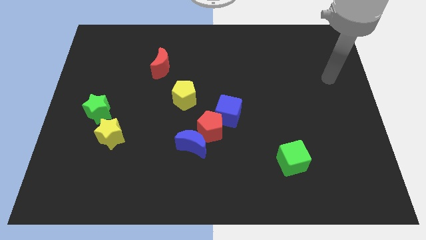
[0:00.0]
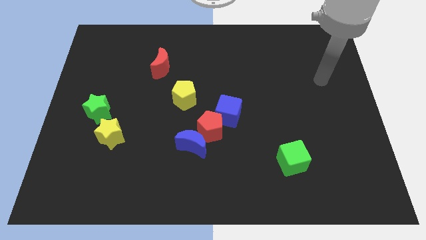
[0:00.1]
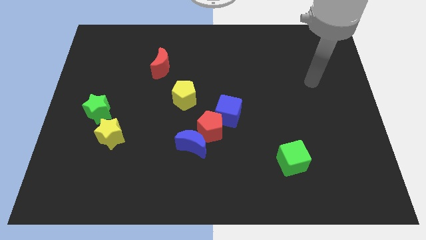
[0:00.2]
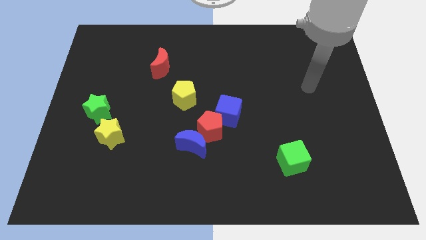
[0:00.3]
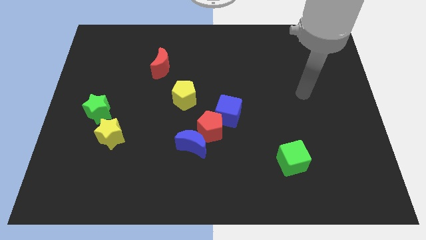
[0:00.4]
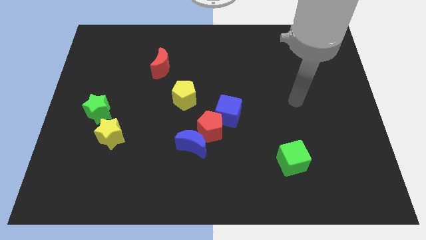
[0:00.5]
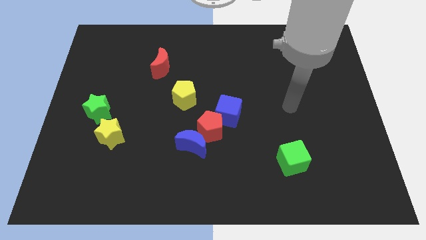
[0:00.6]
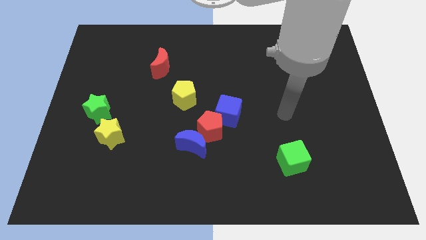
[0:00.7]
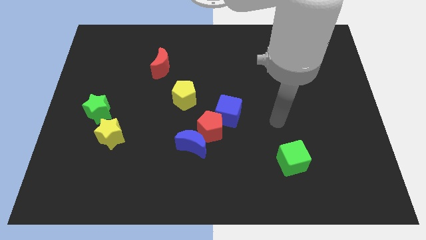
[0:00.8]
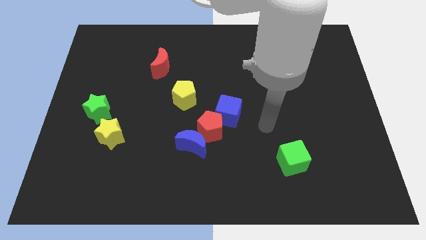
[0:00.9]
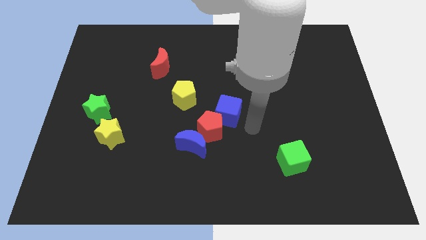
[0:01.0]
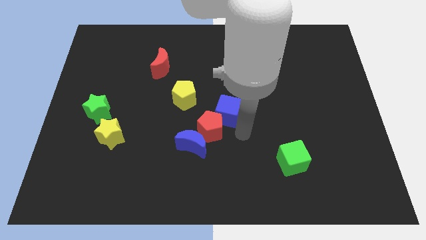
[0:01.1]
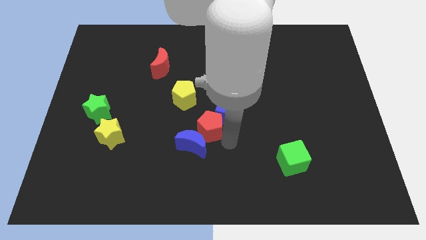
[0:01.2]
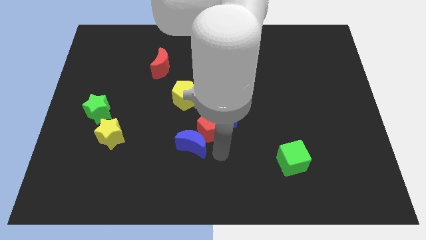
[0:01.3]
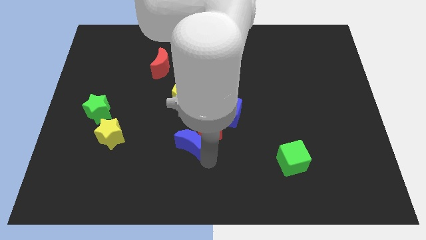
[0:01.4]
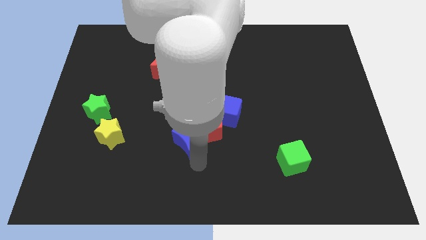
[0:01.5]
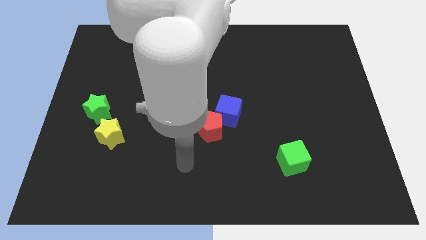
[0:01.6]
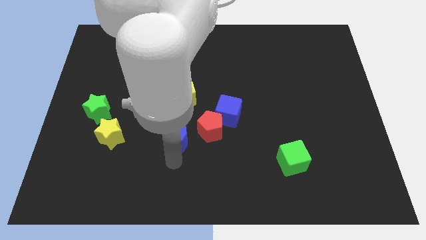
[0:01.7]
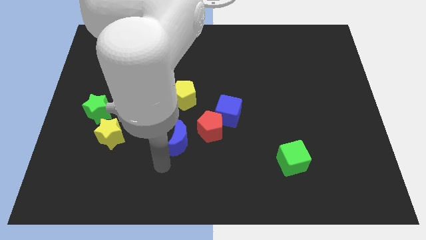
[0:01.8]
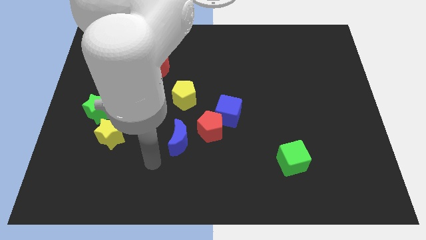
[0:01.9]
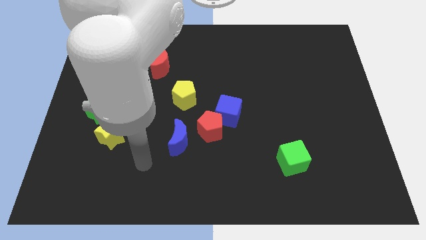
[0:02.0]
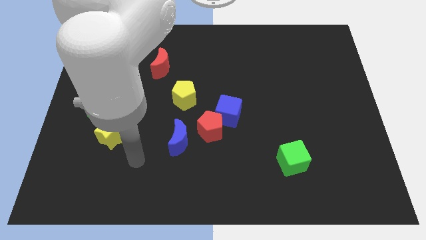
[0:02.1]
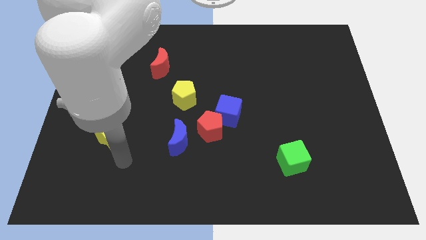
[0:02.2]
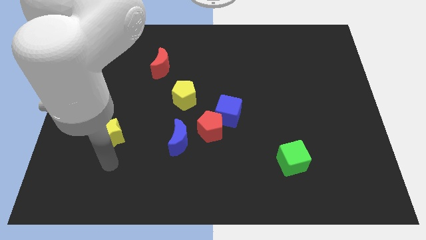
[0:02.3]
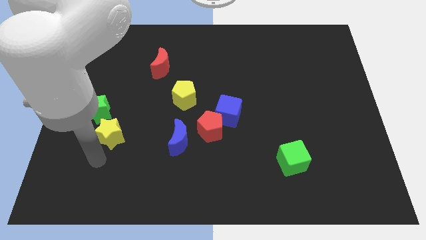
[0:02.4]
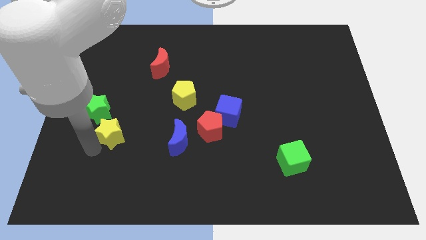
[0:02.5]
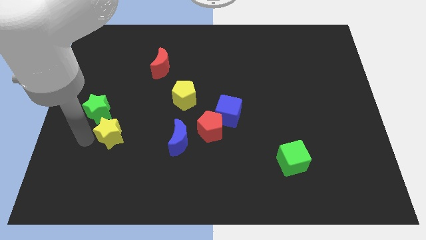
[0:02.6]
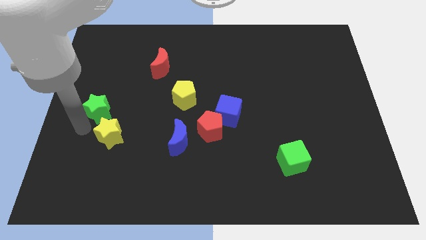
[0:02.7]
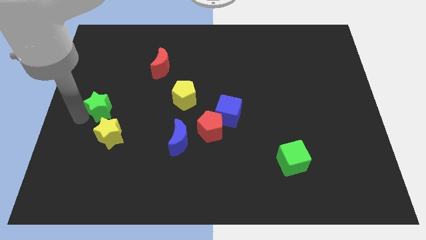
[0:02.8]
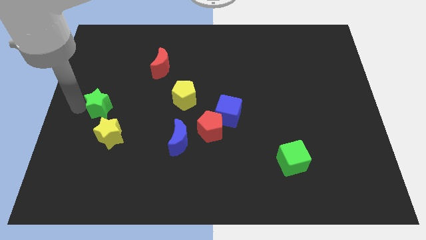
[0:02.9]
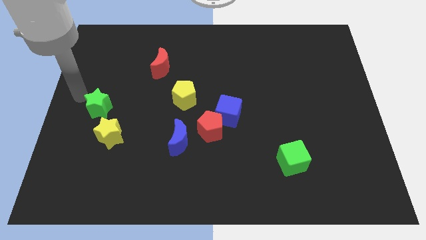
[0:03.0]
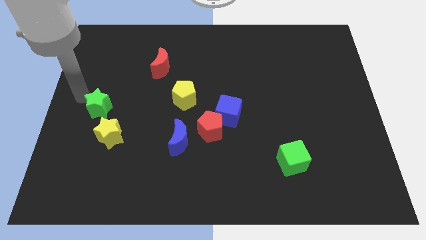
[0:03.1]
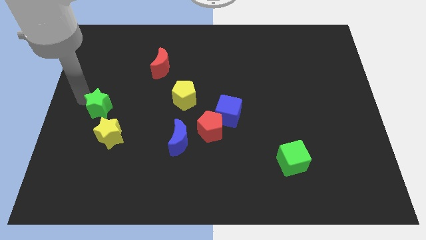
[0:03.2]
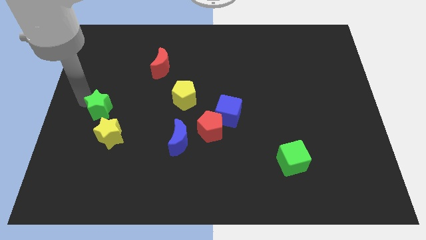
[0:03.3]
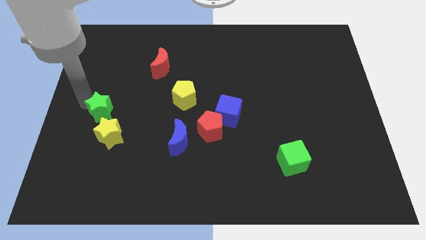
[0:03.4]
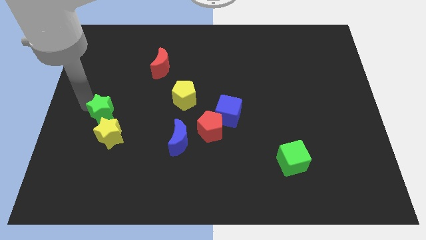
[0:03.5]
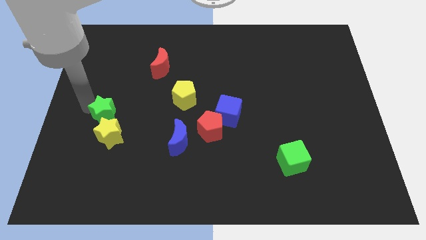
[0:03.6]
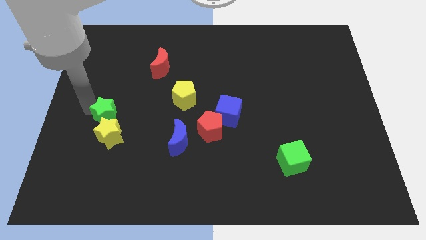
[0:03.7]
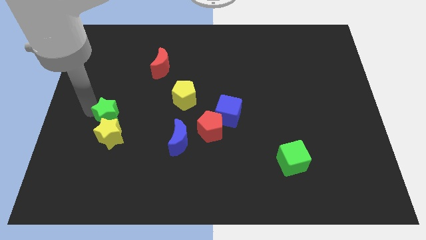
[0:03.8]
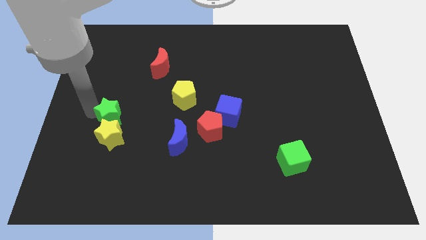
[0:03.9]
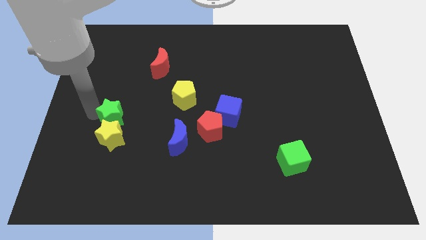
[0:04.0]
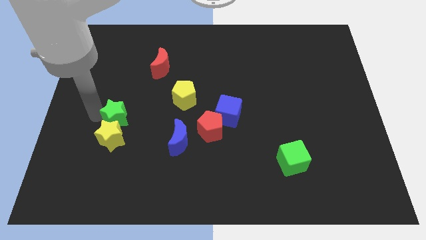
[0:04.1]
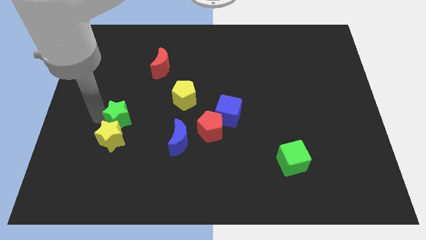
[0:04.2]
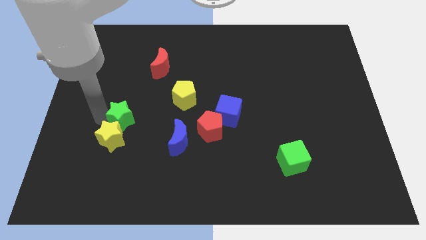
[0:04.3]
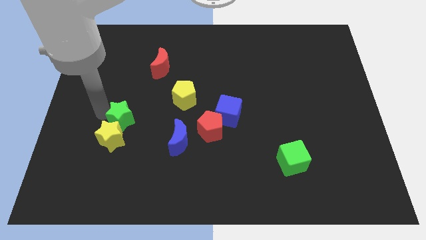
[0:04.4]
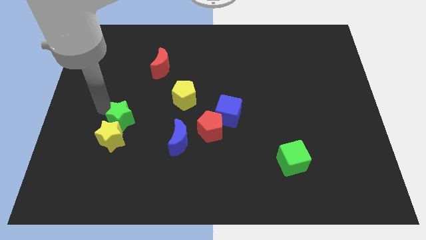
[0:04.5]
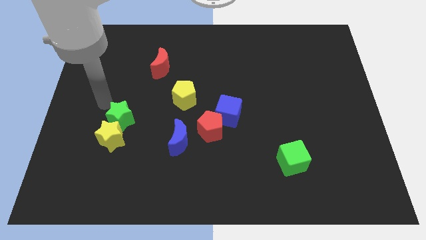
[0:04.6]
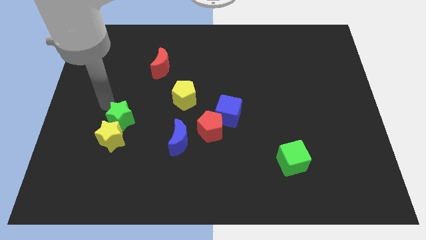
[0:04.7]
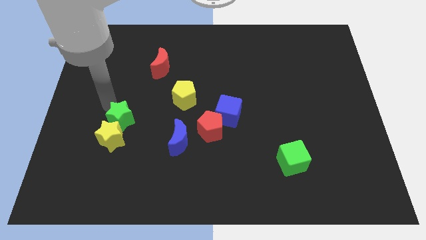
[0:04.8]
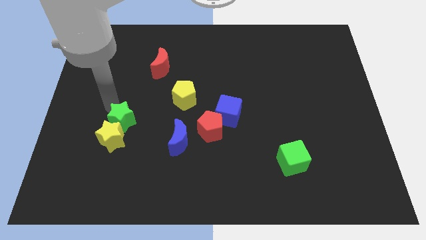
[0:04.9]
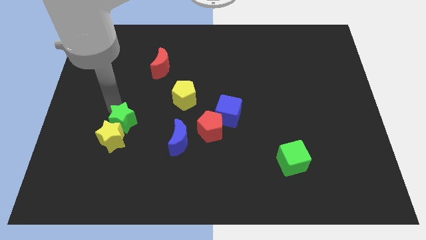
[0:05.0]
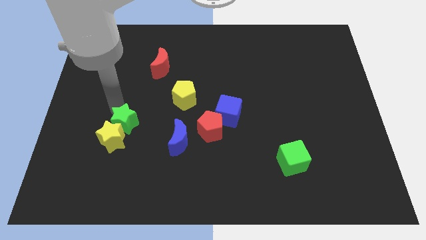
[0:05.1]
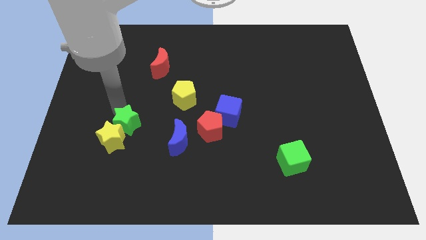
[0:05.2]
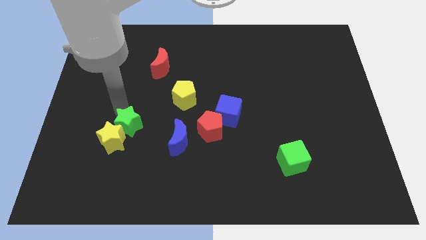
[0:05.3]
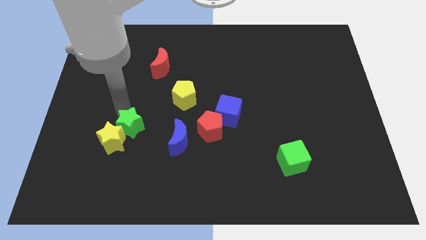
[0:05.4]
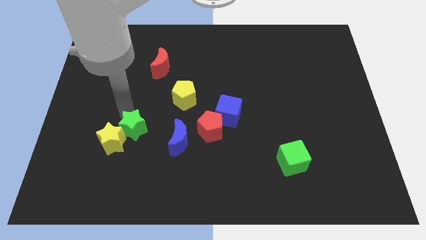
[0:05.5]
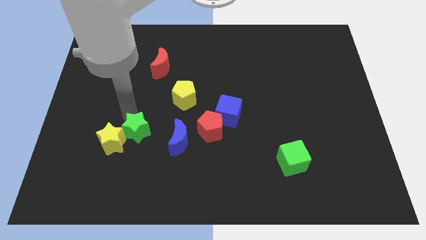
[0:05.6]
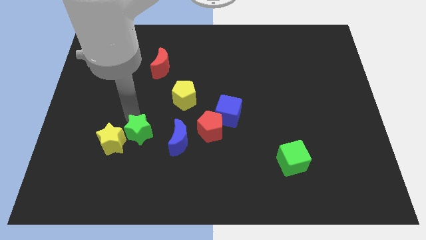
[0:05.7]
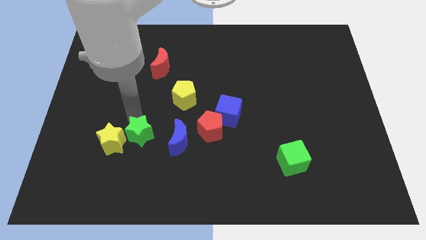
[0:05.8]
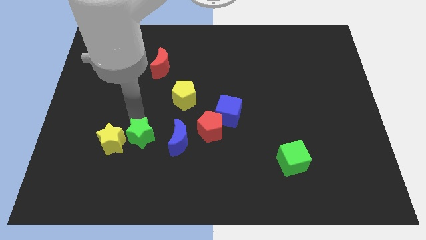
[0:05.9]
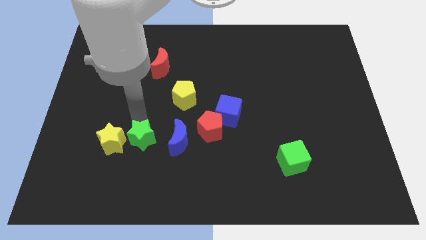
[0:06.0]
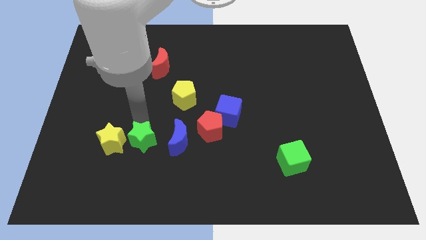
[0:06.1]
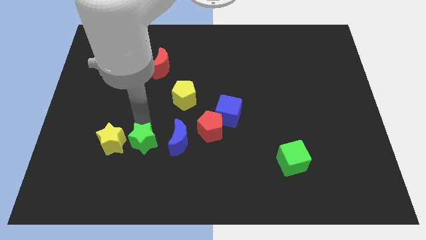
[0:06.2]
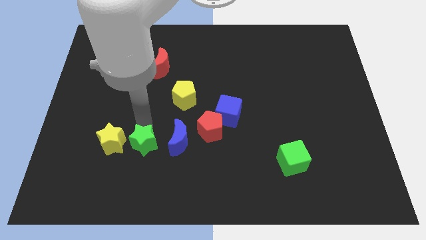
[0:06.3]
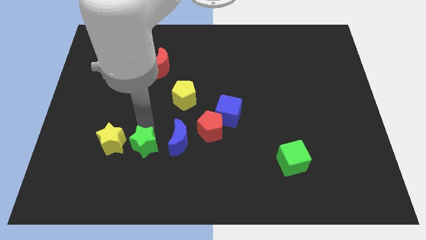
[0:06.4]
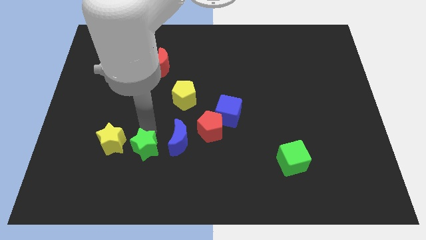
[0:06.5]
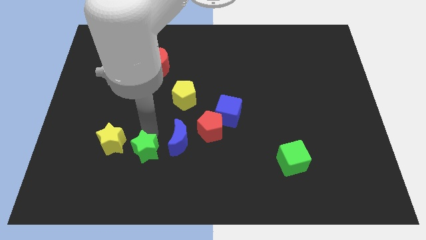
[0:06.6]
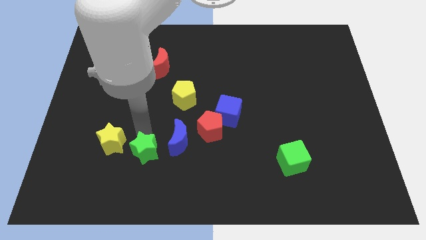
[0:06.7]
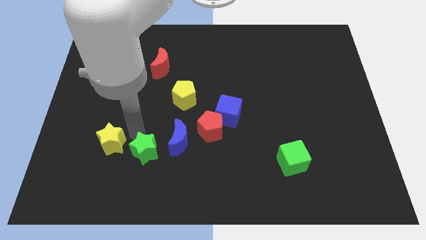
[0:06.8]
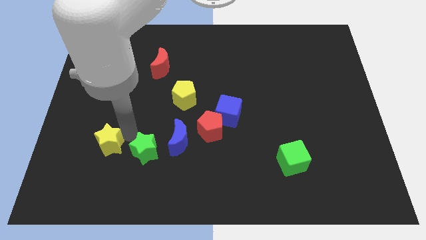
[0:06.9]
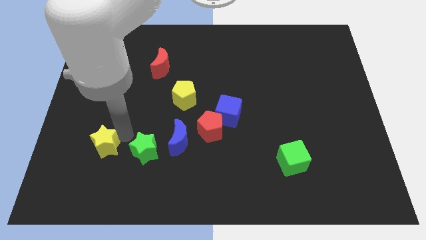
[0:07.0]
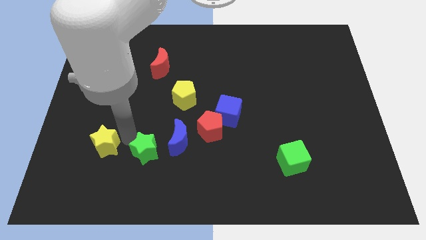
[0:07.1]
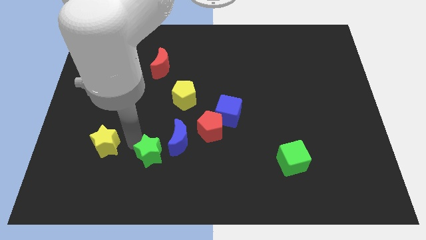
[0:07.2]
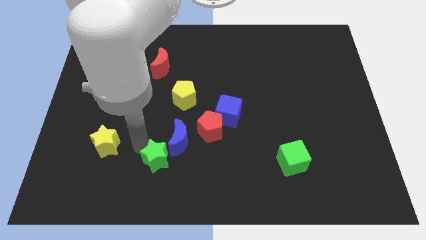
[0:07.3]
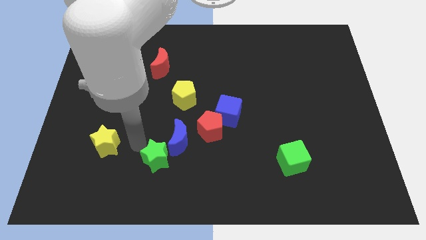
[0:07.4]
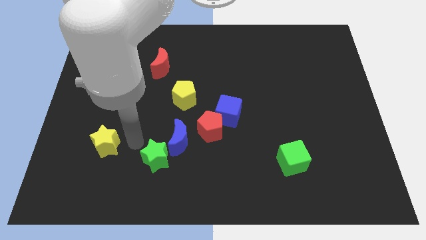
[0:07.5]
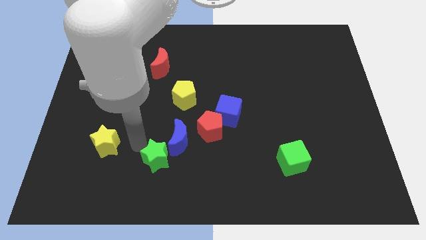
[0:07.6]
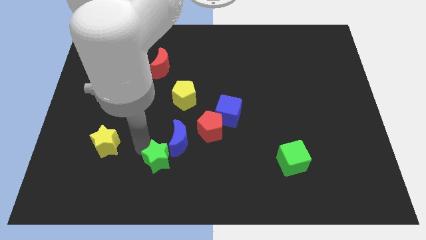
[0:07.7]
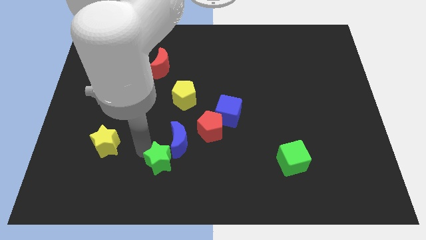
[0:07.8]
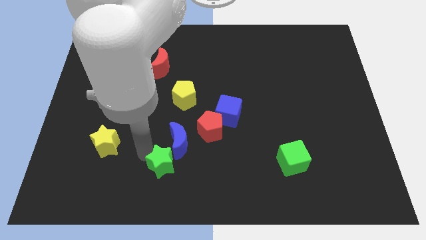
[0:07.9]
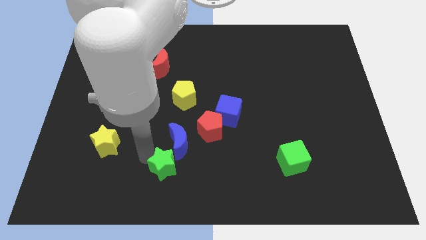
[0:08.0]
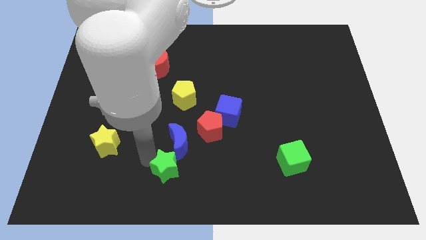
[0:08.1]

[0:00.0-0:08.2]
push the green star to the bottom side
